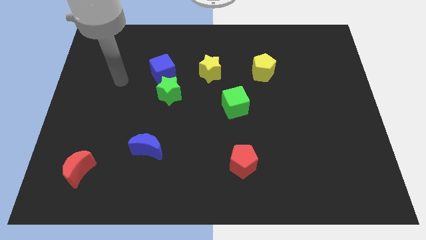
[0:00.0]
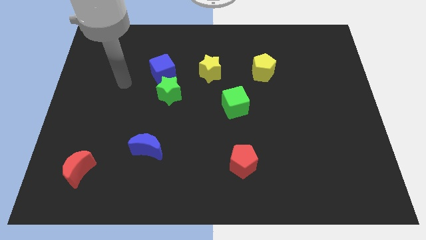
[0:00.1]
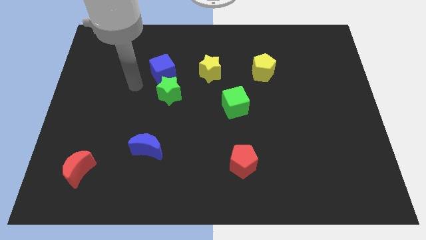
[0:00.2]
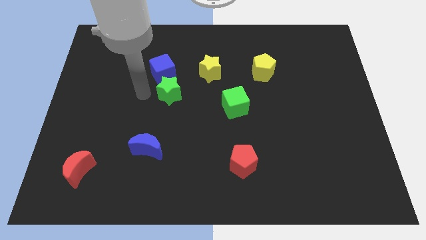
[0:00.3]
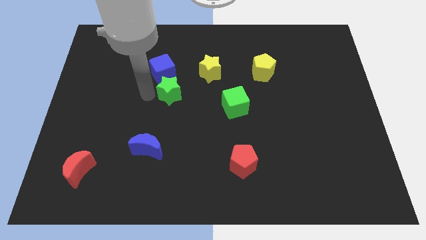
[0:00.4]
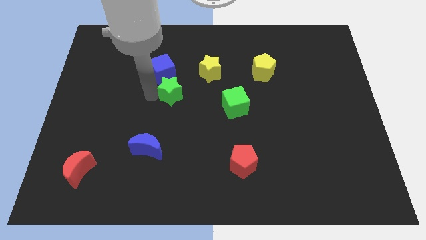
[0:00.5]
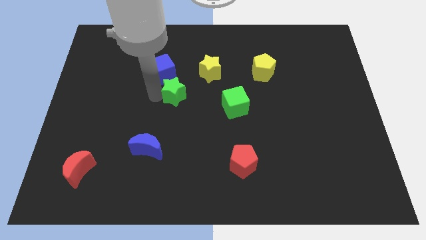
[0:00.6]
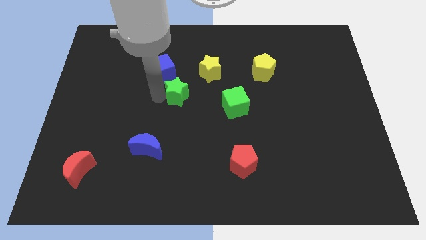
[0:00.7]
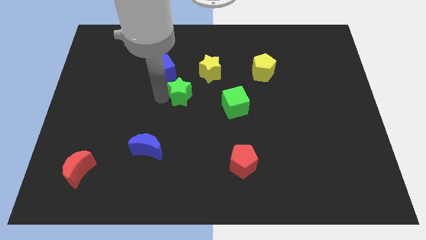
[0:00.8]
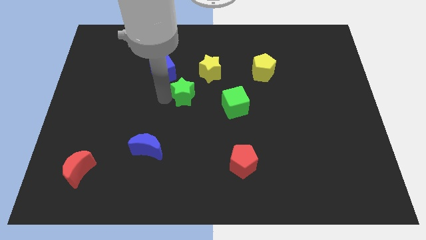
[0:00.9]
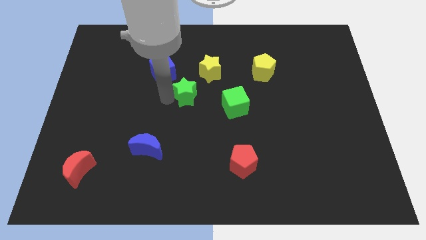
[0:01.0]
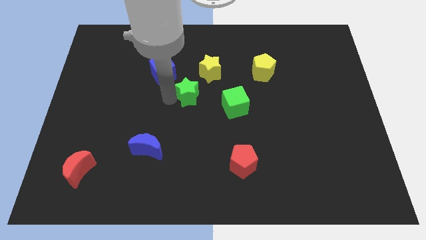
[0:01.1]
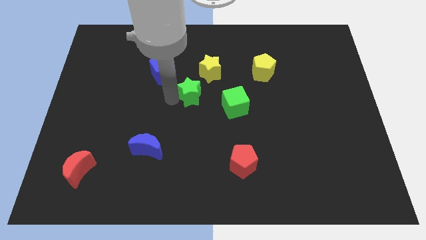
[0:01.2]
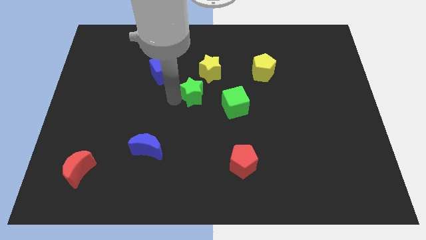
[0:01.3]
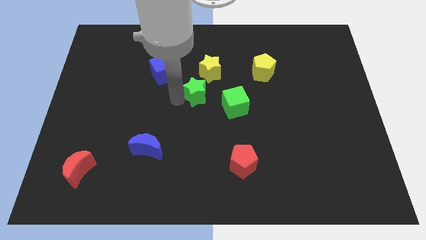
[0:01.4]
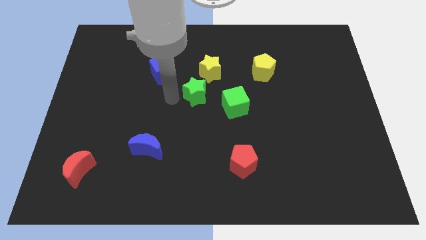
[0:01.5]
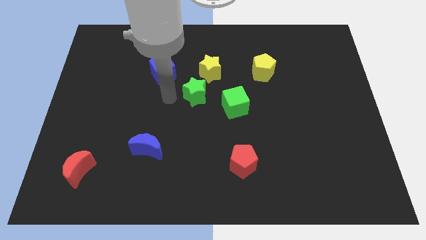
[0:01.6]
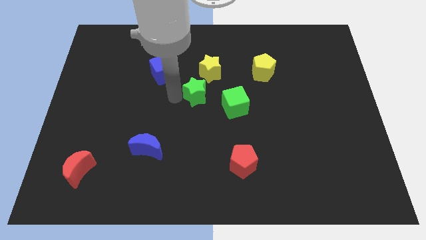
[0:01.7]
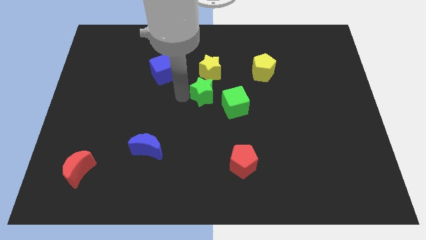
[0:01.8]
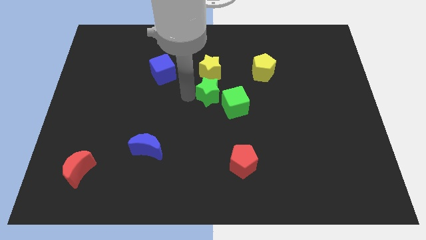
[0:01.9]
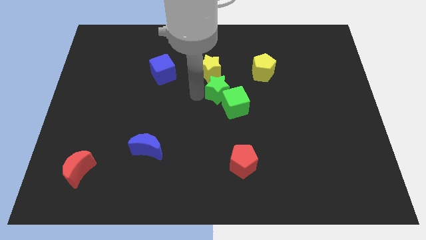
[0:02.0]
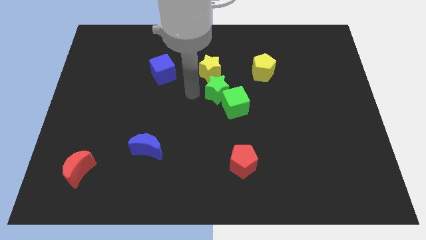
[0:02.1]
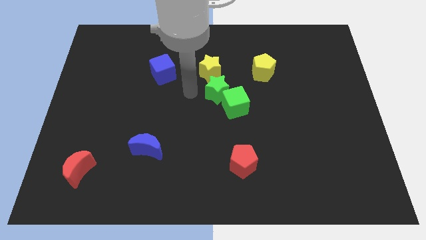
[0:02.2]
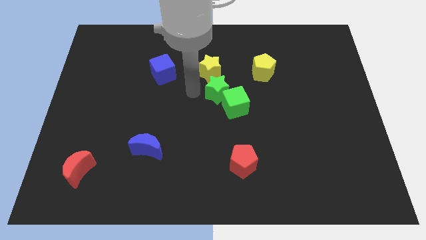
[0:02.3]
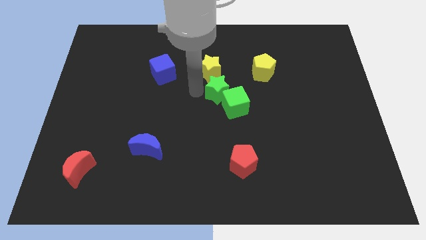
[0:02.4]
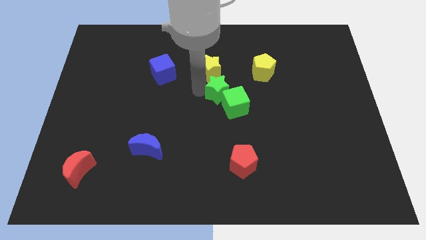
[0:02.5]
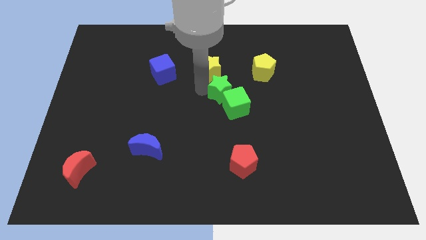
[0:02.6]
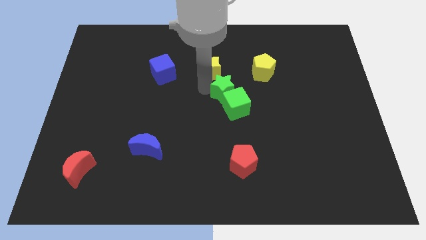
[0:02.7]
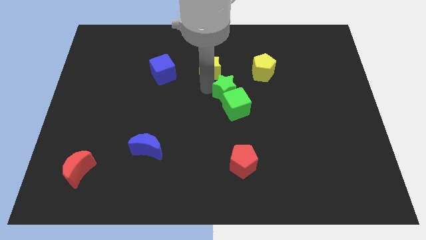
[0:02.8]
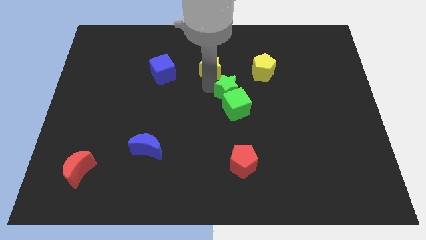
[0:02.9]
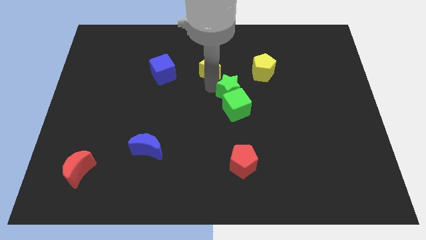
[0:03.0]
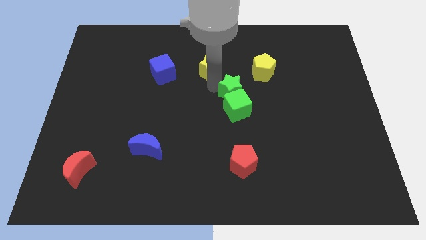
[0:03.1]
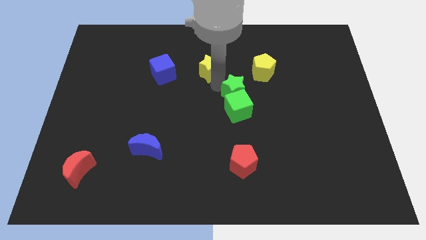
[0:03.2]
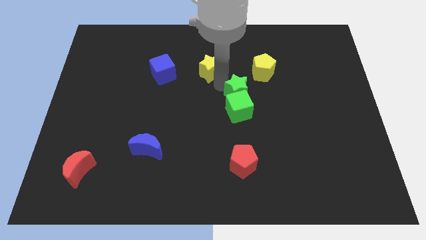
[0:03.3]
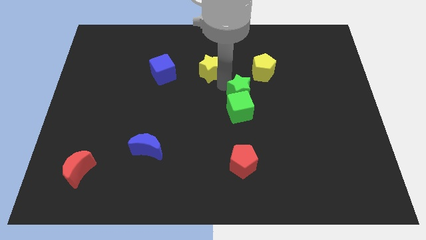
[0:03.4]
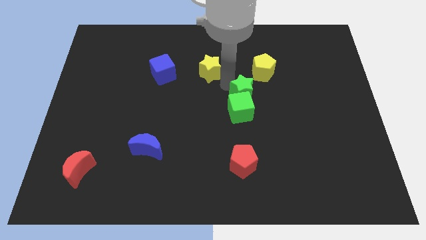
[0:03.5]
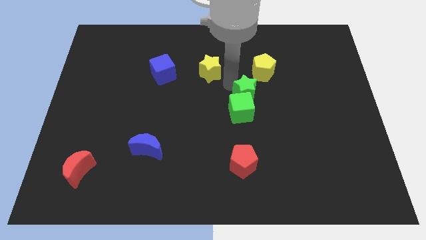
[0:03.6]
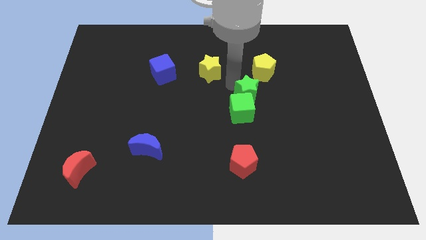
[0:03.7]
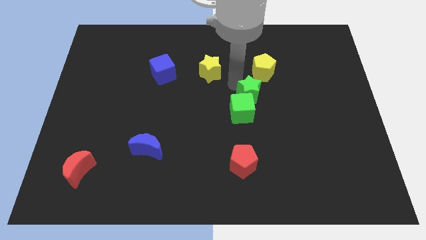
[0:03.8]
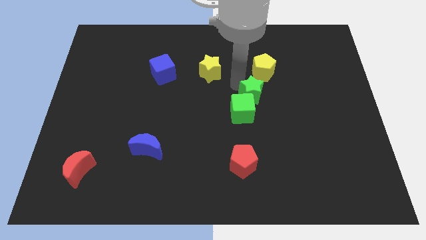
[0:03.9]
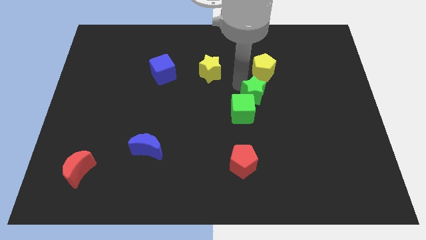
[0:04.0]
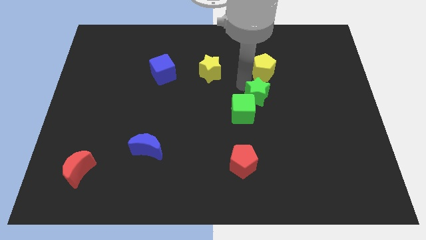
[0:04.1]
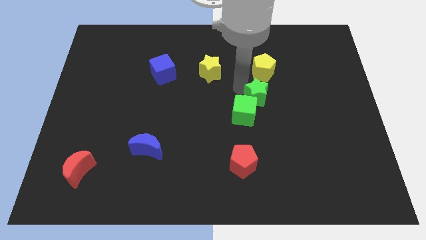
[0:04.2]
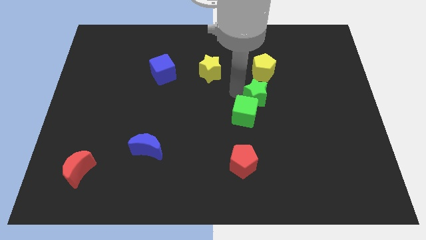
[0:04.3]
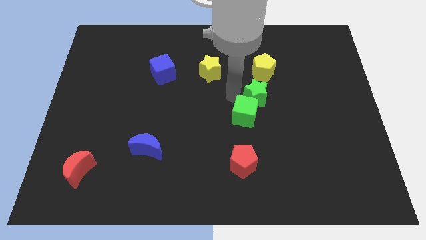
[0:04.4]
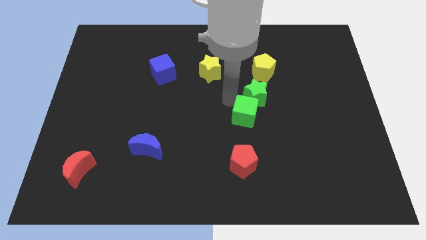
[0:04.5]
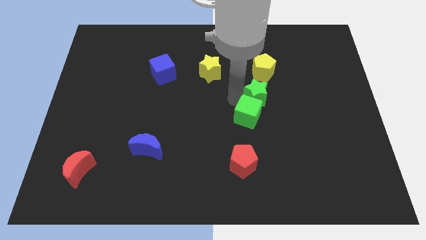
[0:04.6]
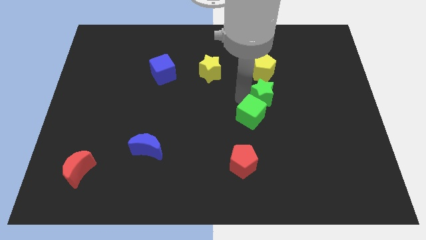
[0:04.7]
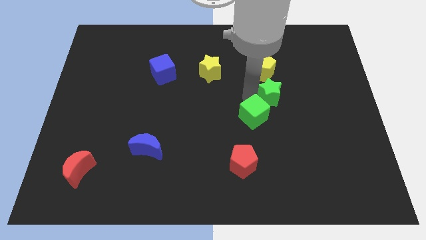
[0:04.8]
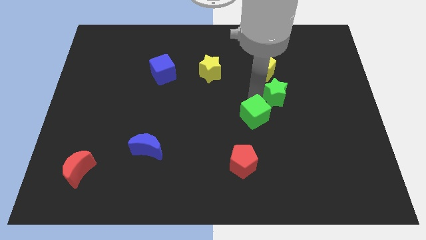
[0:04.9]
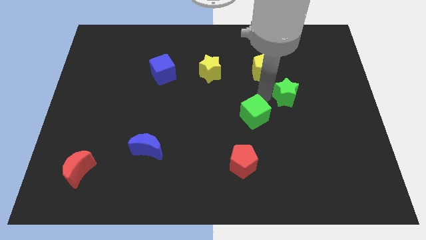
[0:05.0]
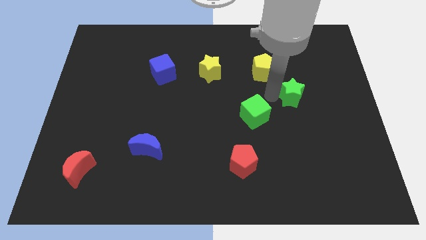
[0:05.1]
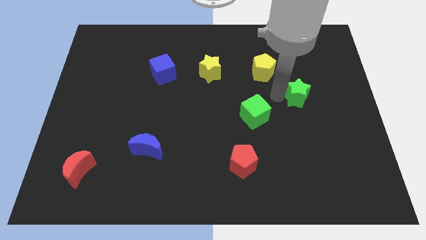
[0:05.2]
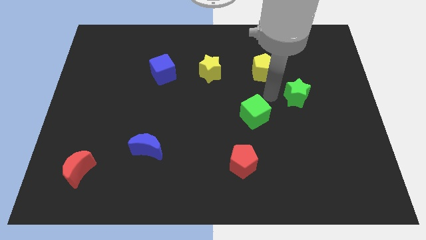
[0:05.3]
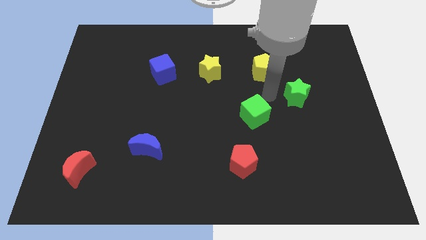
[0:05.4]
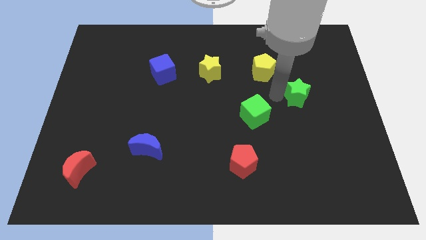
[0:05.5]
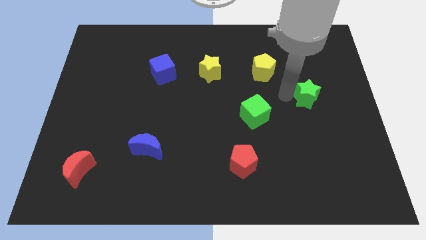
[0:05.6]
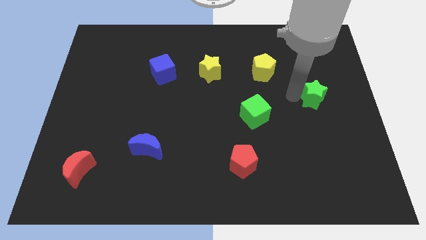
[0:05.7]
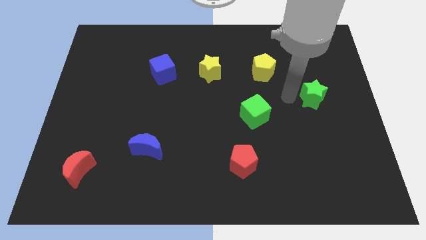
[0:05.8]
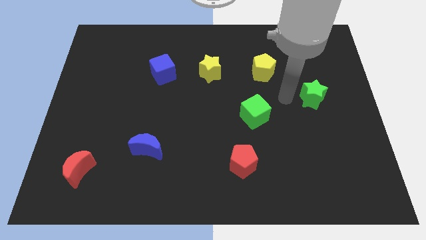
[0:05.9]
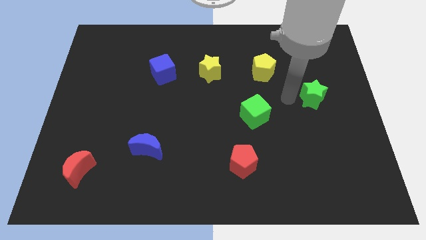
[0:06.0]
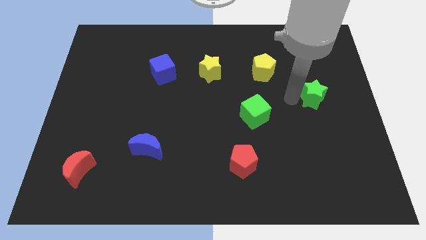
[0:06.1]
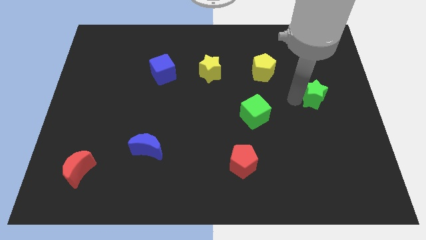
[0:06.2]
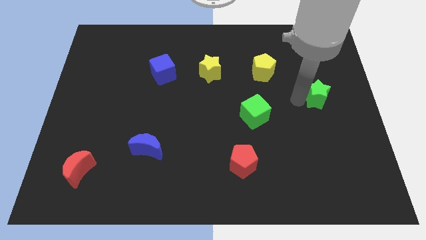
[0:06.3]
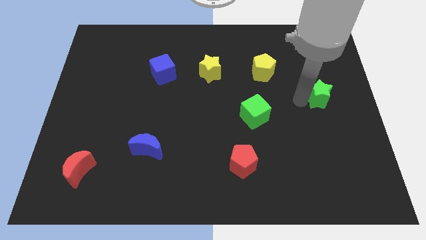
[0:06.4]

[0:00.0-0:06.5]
slide the green star to the right side

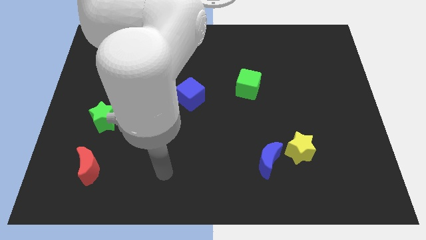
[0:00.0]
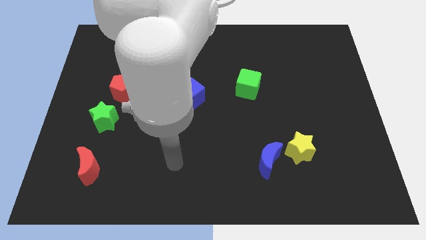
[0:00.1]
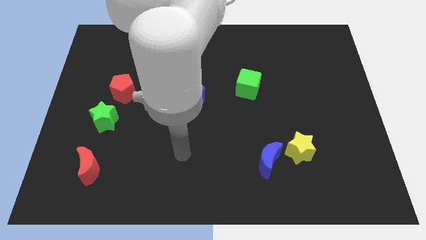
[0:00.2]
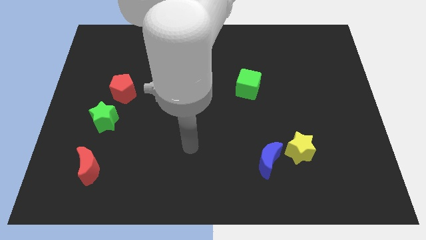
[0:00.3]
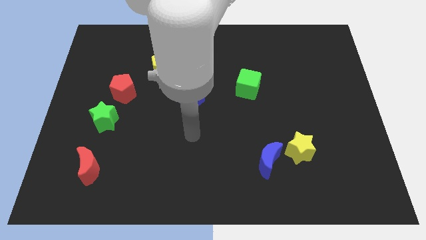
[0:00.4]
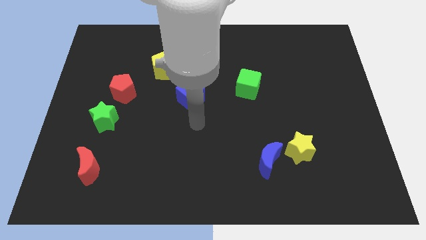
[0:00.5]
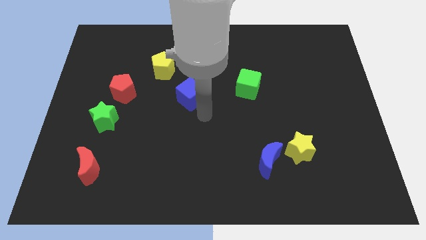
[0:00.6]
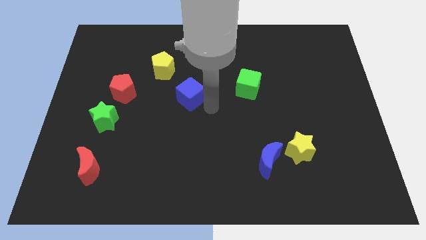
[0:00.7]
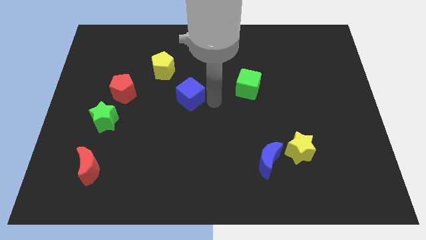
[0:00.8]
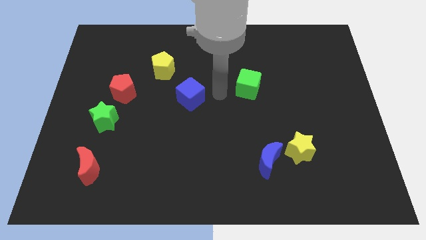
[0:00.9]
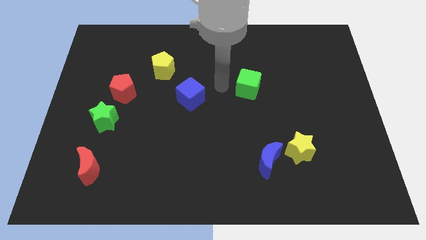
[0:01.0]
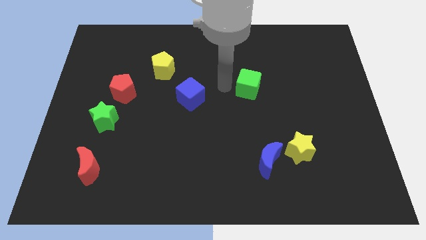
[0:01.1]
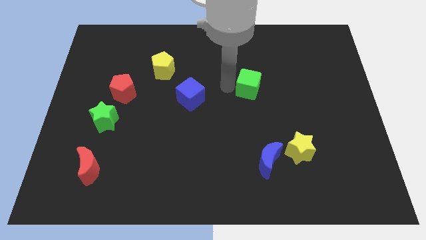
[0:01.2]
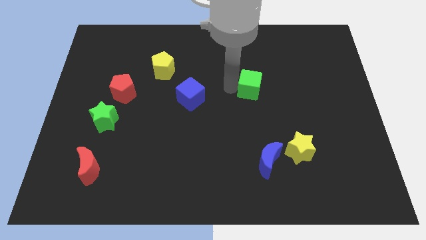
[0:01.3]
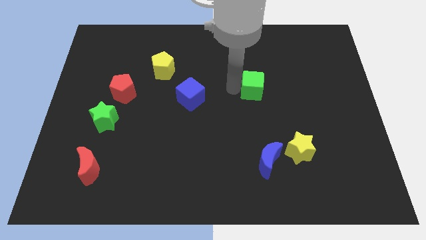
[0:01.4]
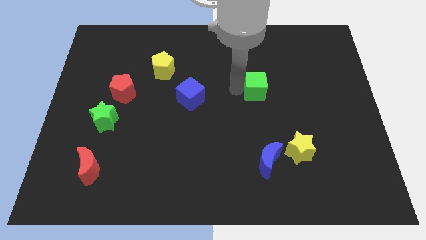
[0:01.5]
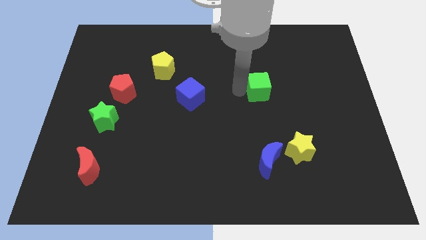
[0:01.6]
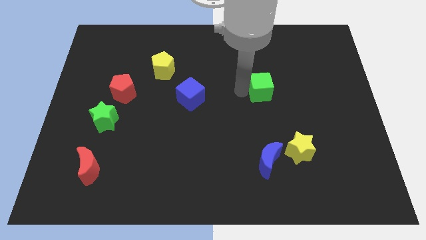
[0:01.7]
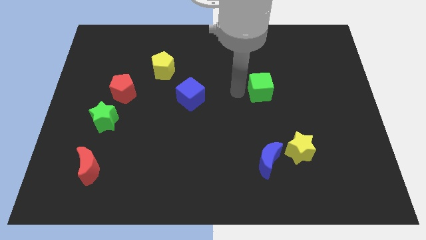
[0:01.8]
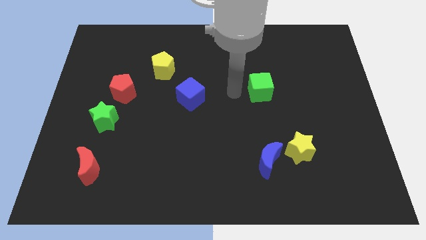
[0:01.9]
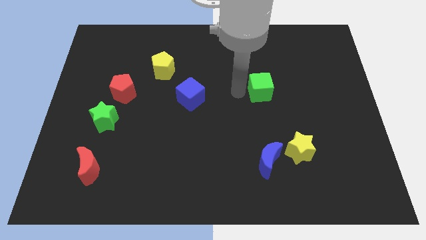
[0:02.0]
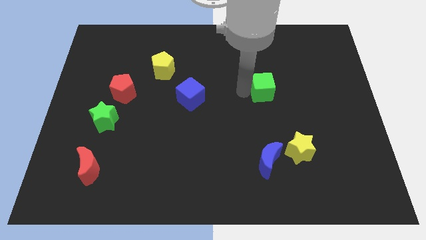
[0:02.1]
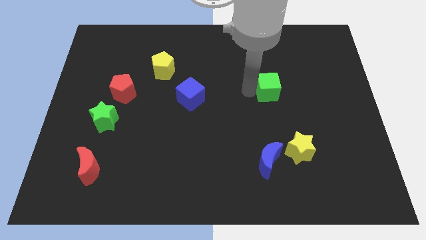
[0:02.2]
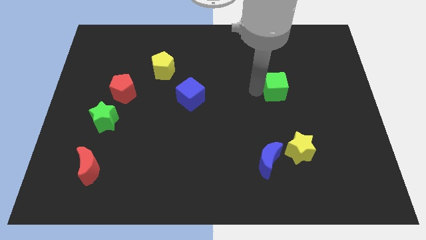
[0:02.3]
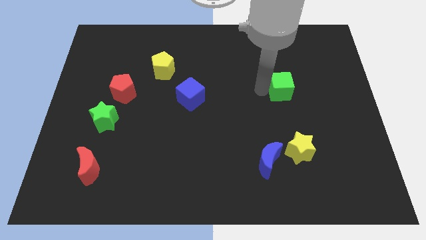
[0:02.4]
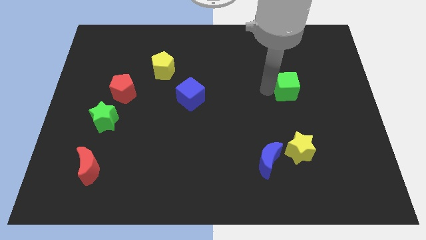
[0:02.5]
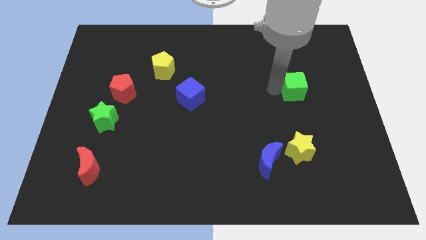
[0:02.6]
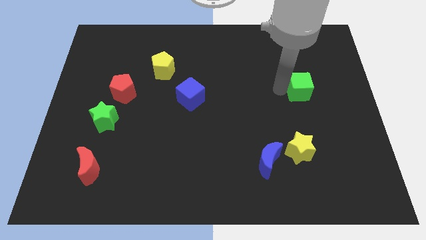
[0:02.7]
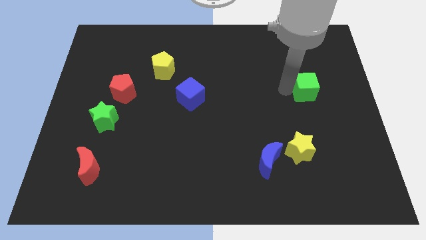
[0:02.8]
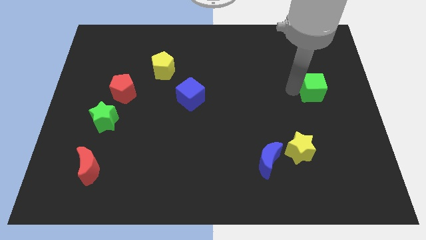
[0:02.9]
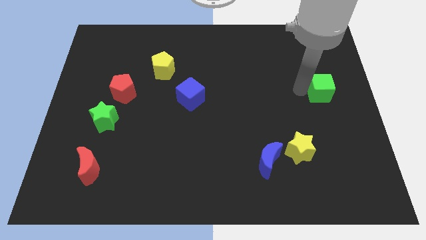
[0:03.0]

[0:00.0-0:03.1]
move the green cube to the center right
